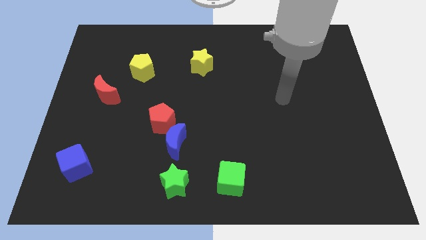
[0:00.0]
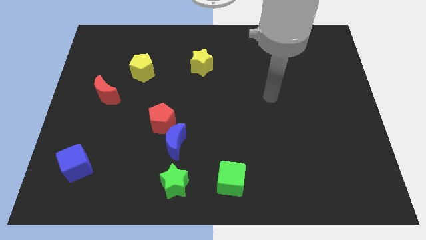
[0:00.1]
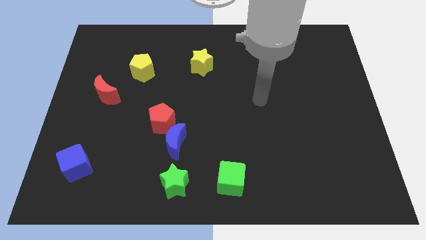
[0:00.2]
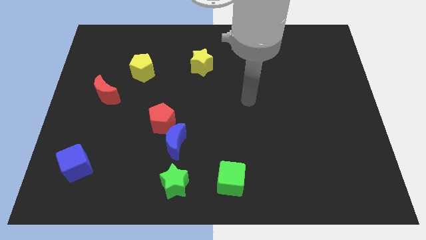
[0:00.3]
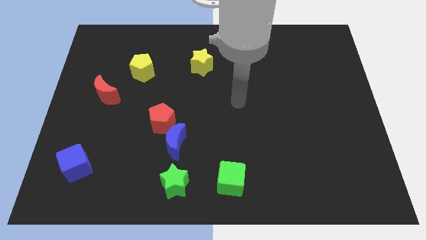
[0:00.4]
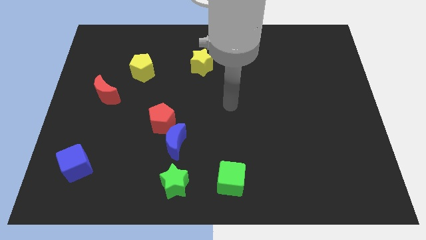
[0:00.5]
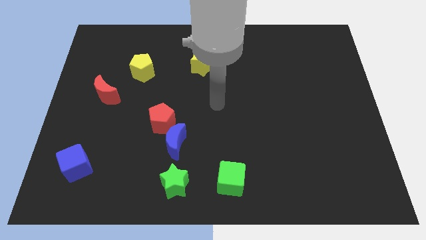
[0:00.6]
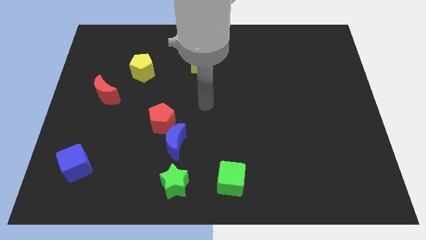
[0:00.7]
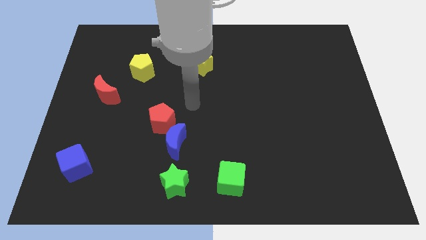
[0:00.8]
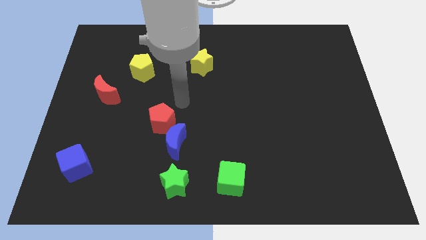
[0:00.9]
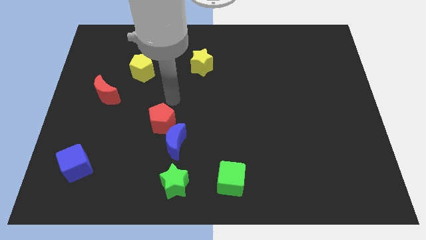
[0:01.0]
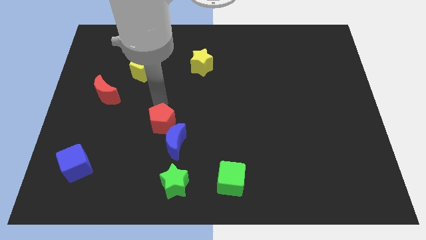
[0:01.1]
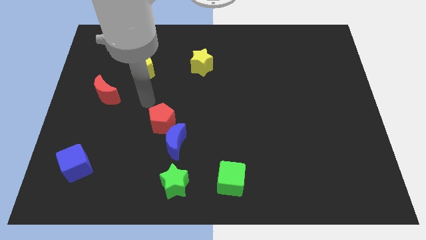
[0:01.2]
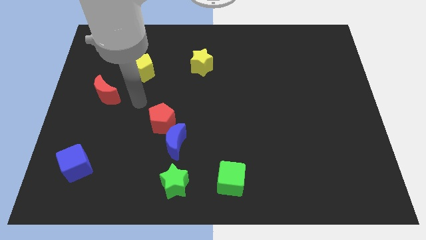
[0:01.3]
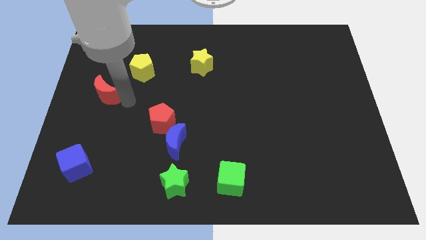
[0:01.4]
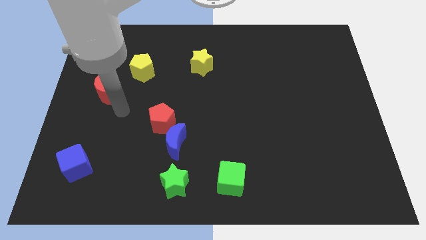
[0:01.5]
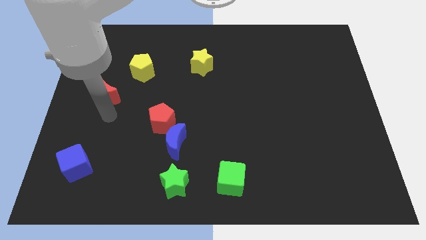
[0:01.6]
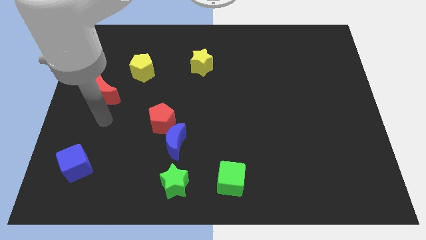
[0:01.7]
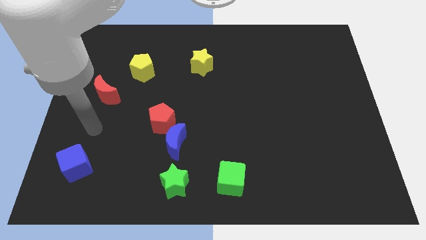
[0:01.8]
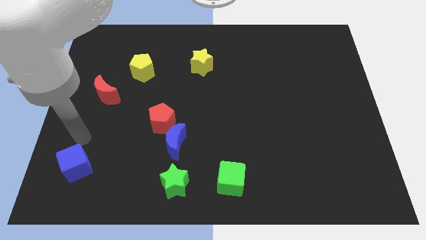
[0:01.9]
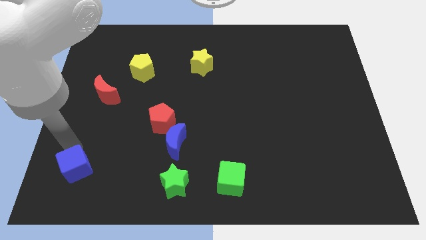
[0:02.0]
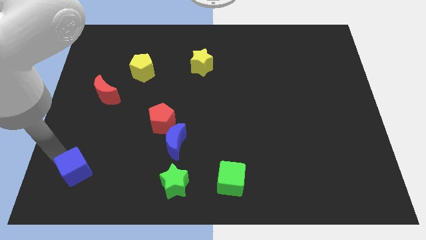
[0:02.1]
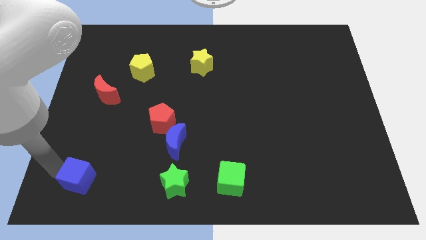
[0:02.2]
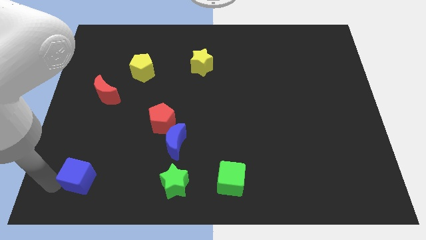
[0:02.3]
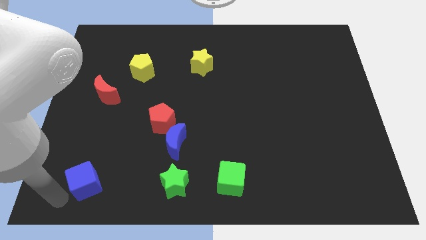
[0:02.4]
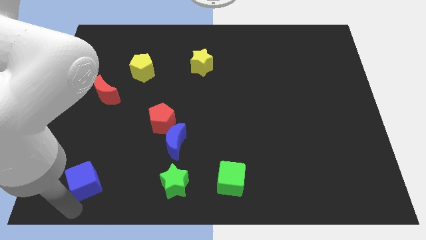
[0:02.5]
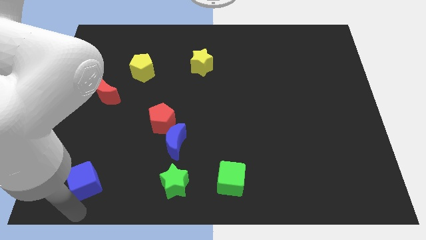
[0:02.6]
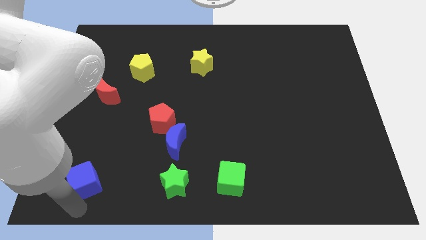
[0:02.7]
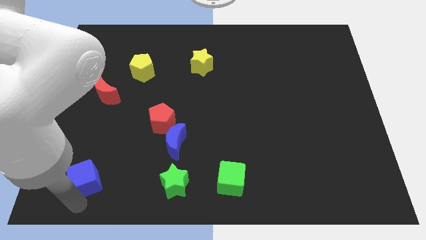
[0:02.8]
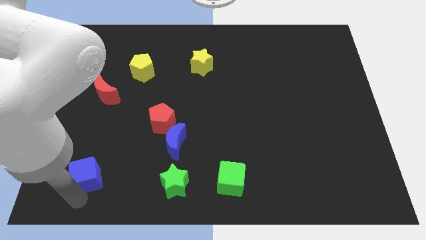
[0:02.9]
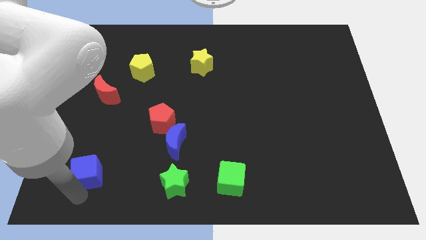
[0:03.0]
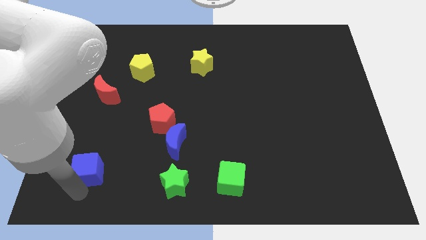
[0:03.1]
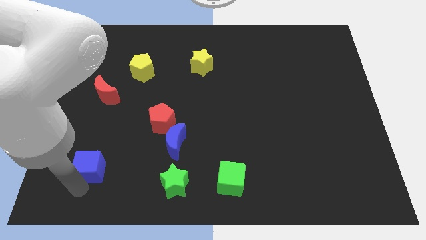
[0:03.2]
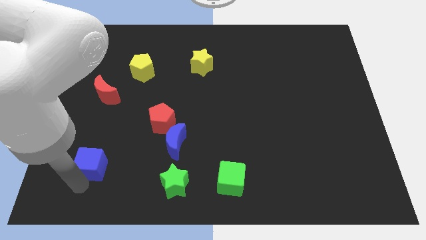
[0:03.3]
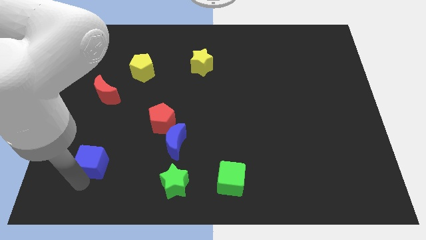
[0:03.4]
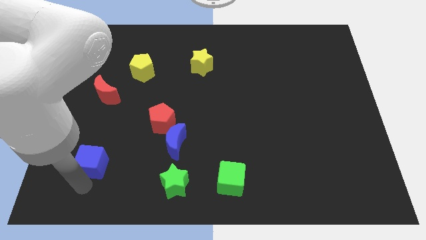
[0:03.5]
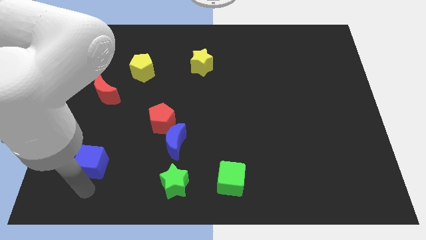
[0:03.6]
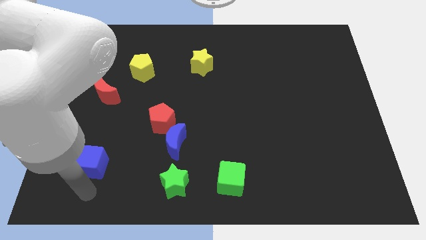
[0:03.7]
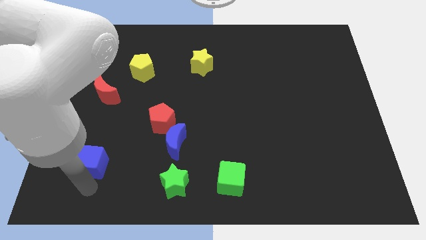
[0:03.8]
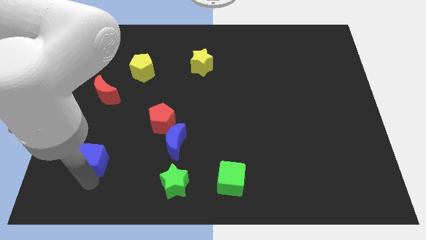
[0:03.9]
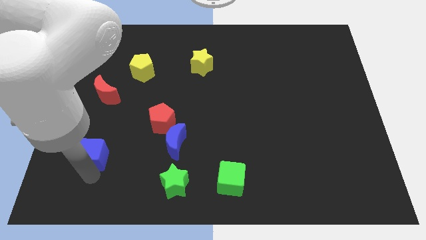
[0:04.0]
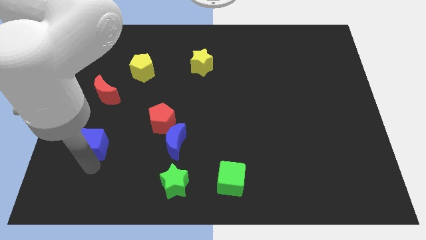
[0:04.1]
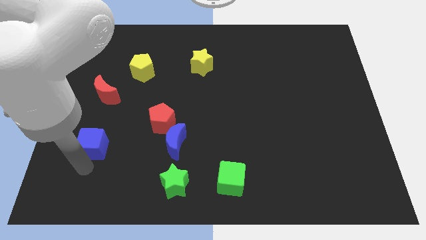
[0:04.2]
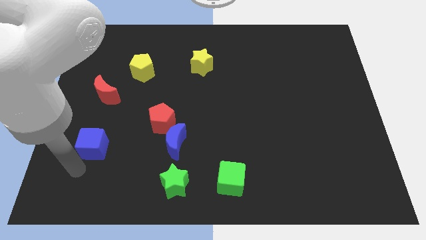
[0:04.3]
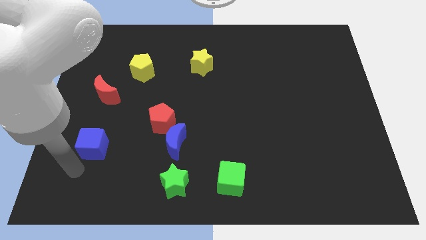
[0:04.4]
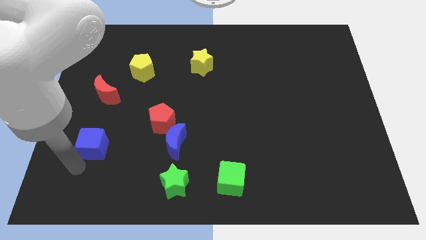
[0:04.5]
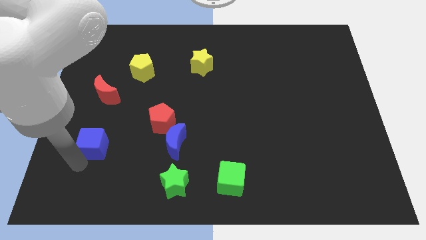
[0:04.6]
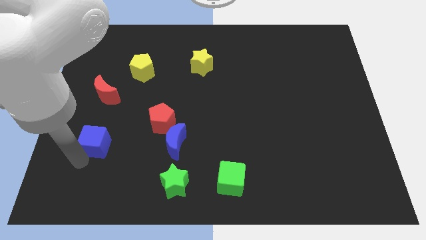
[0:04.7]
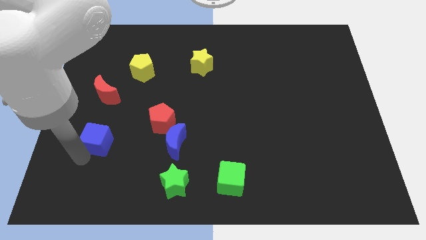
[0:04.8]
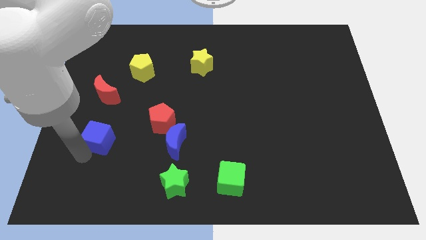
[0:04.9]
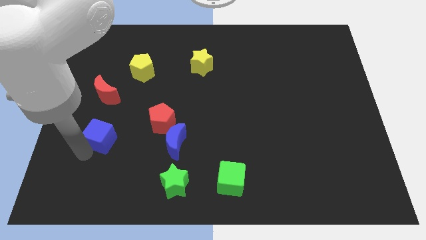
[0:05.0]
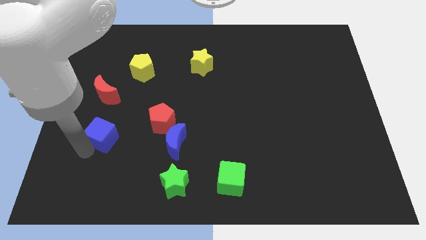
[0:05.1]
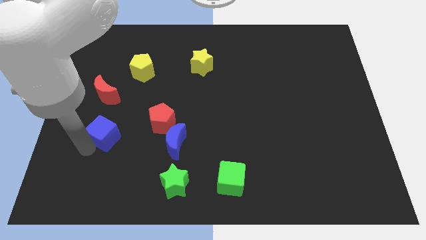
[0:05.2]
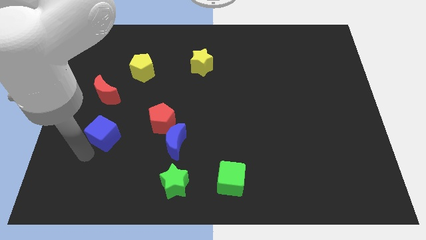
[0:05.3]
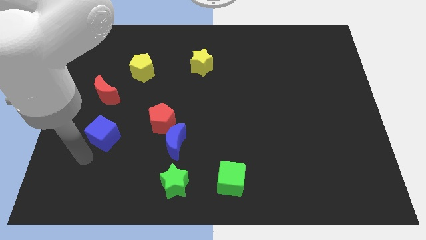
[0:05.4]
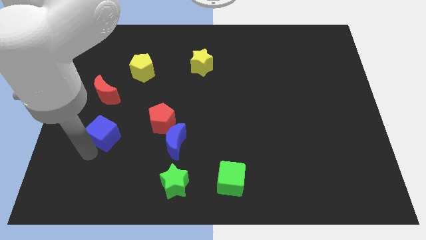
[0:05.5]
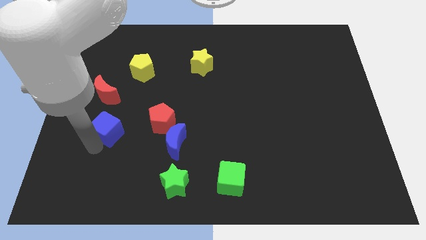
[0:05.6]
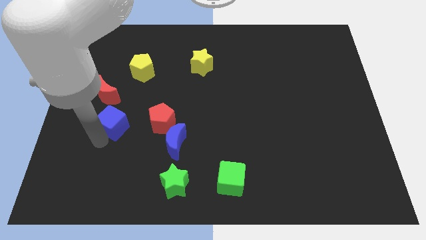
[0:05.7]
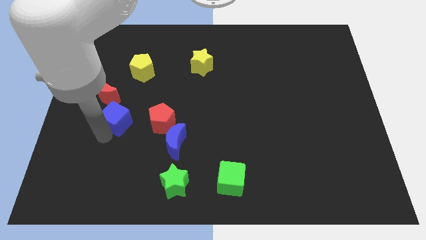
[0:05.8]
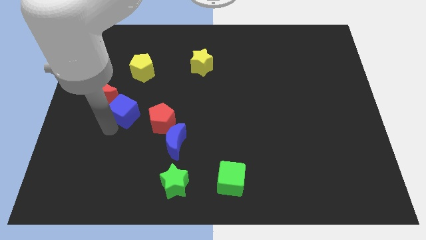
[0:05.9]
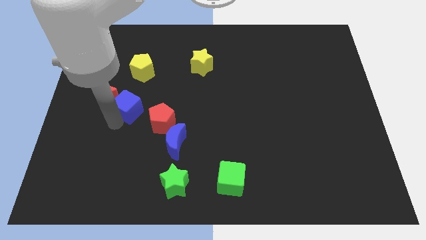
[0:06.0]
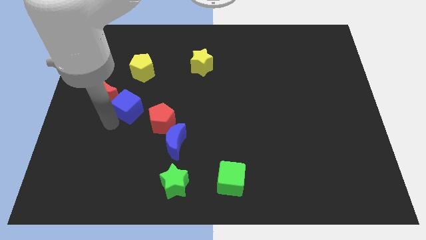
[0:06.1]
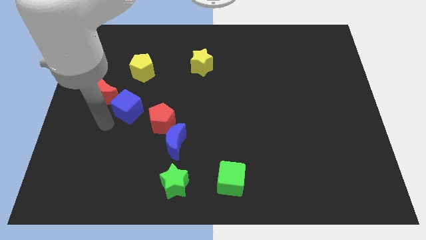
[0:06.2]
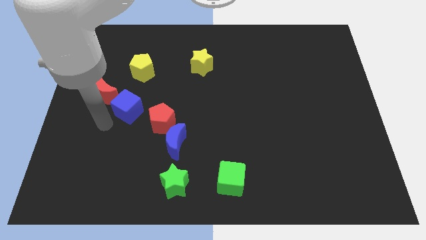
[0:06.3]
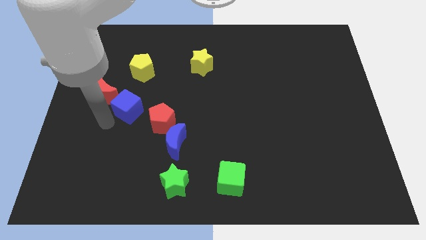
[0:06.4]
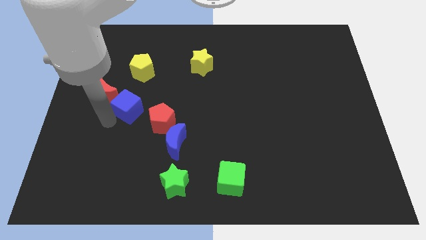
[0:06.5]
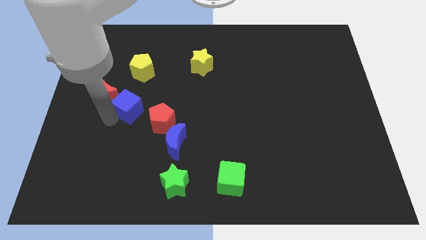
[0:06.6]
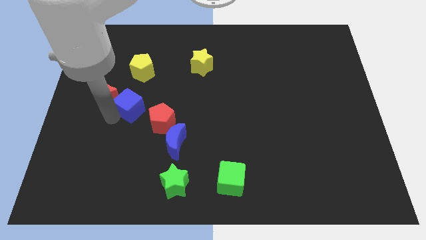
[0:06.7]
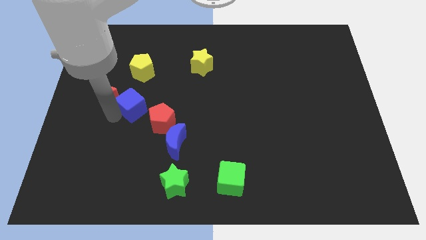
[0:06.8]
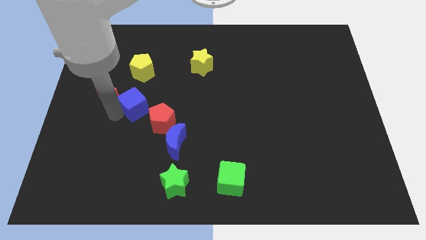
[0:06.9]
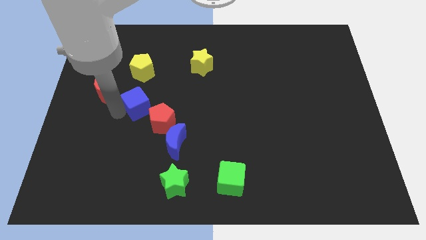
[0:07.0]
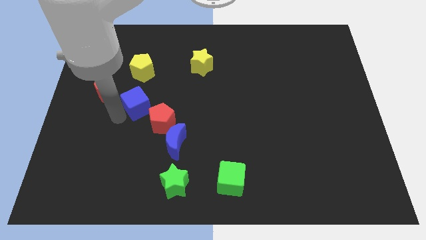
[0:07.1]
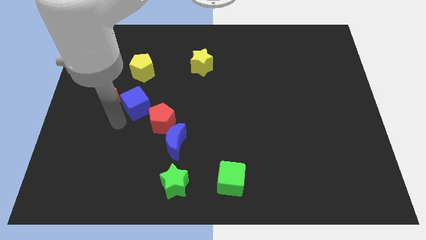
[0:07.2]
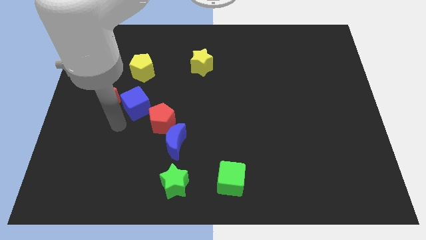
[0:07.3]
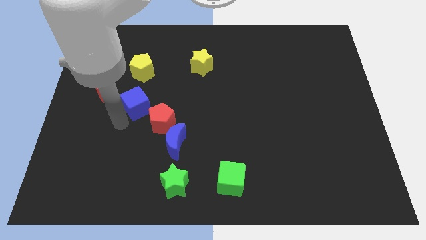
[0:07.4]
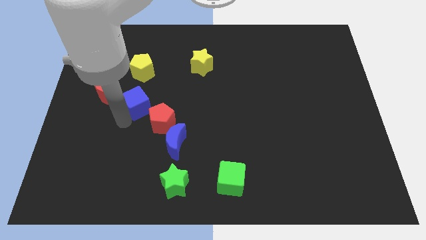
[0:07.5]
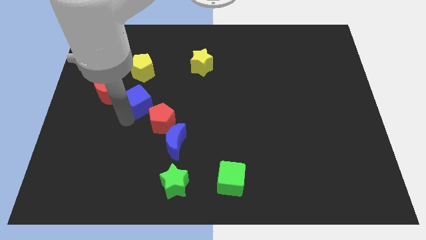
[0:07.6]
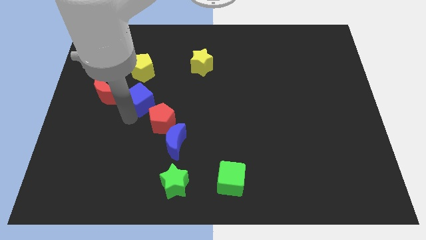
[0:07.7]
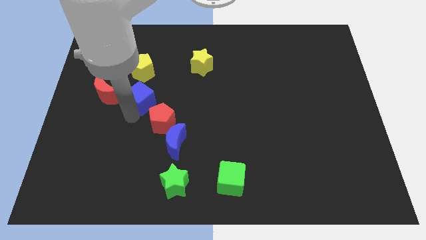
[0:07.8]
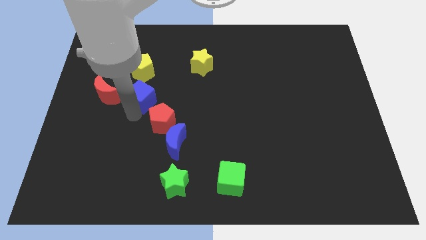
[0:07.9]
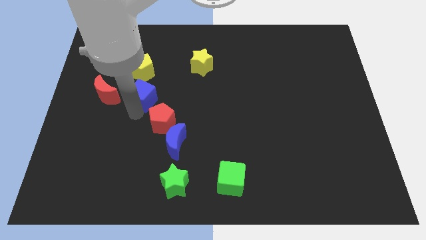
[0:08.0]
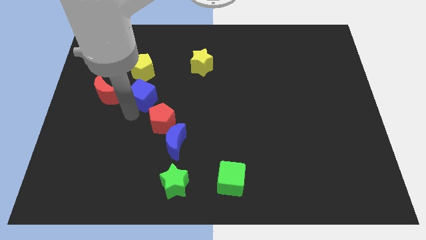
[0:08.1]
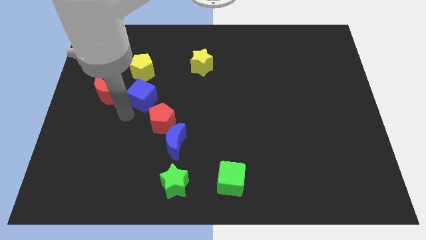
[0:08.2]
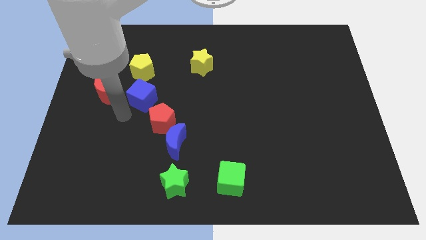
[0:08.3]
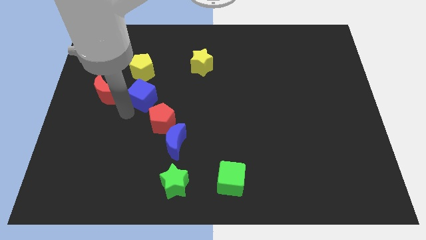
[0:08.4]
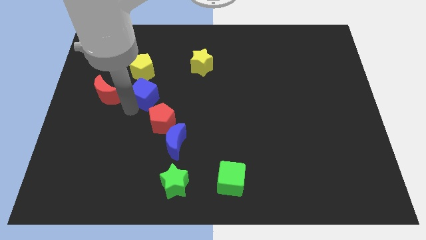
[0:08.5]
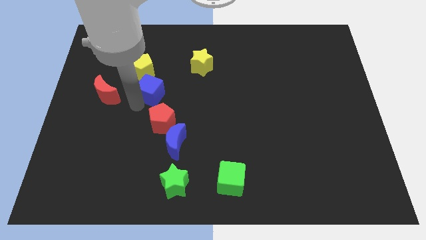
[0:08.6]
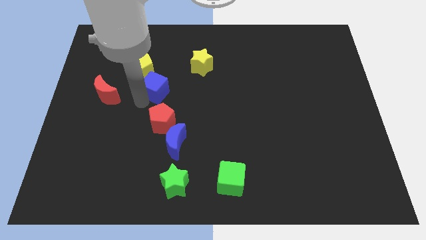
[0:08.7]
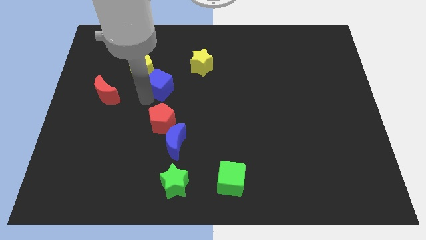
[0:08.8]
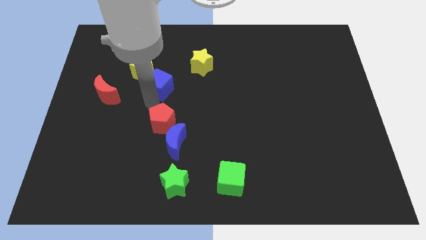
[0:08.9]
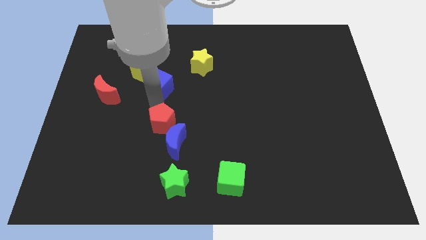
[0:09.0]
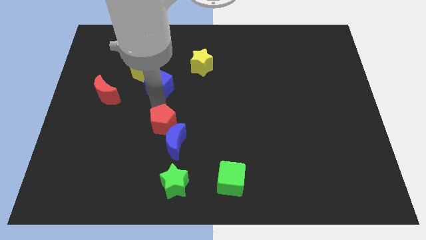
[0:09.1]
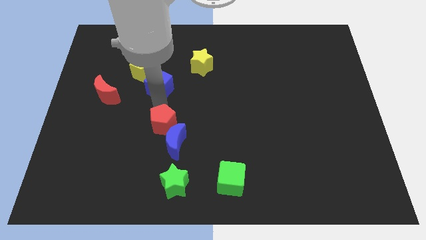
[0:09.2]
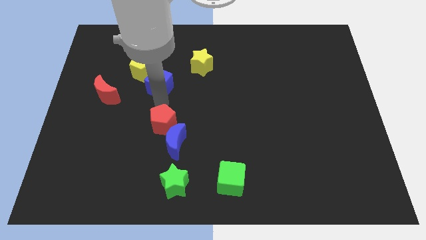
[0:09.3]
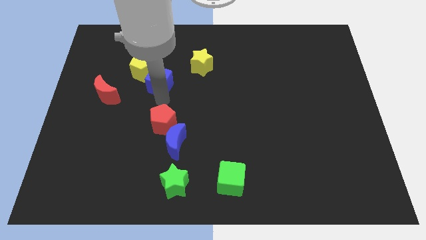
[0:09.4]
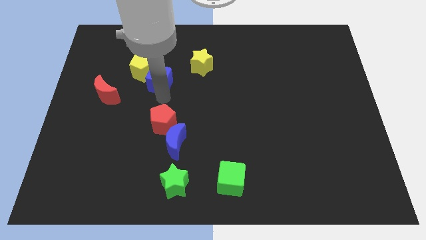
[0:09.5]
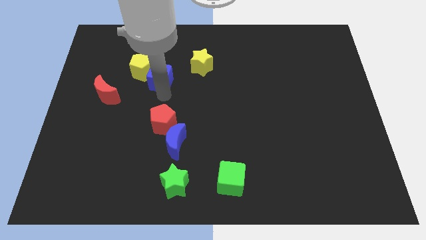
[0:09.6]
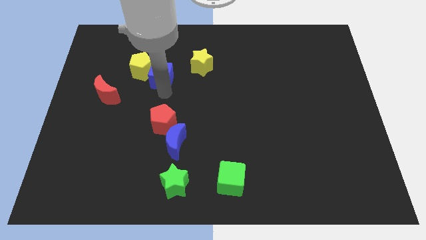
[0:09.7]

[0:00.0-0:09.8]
slide the blue cube to the left of the yellow star
